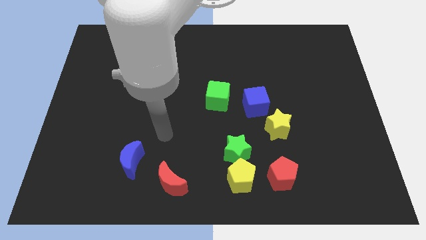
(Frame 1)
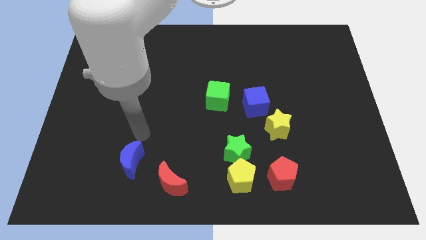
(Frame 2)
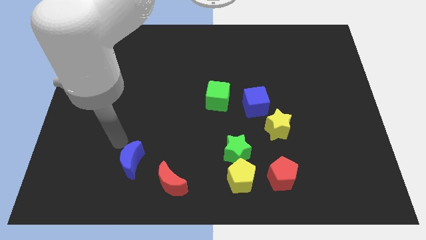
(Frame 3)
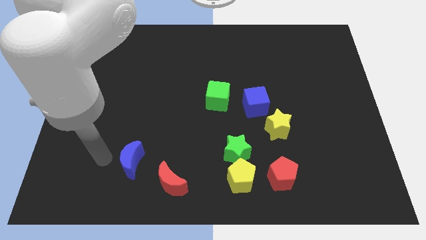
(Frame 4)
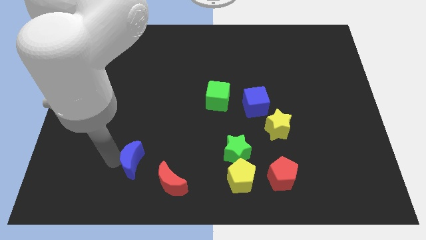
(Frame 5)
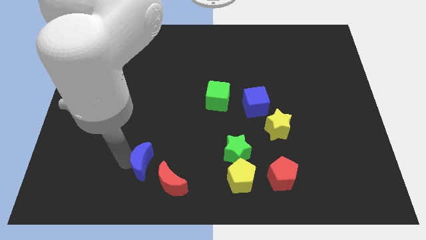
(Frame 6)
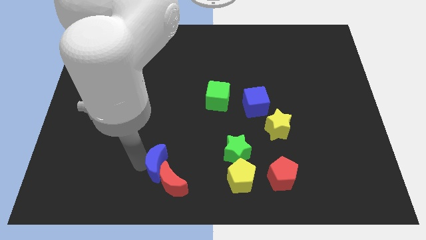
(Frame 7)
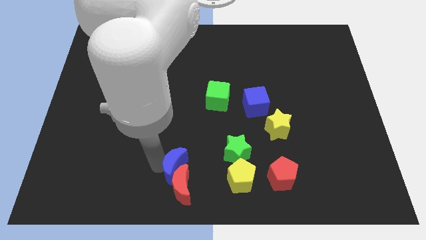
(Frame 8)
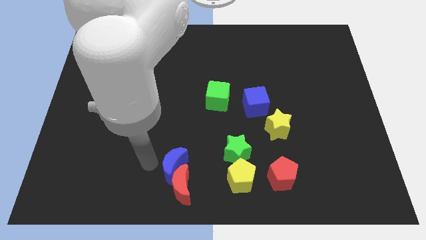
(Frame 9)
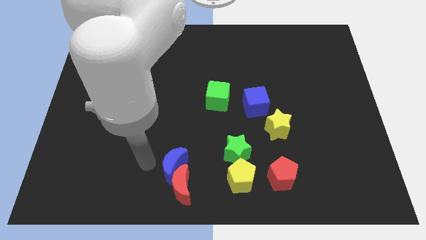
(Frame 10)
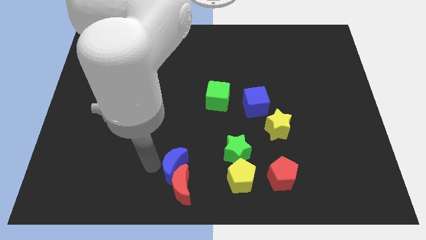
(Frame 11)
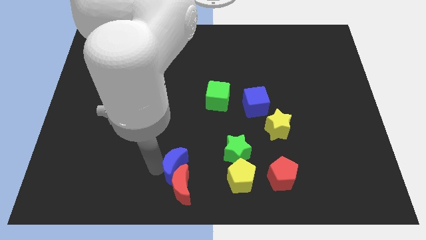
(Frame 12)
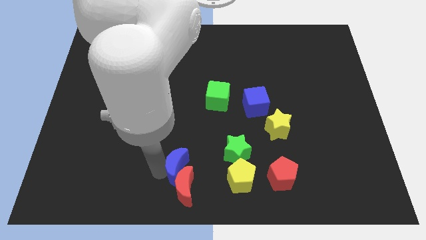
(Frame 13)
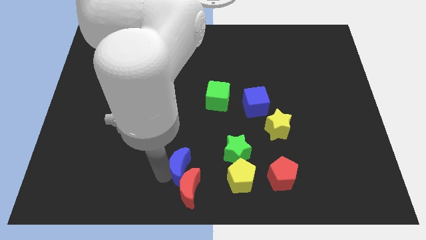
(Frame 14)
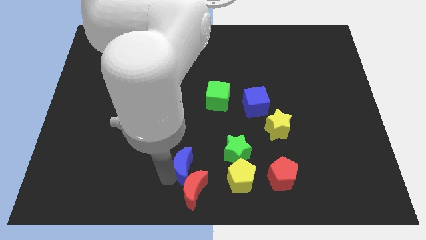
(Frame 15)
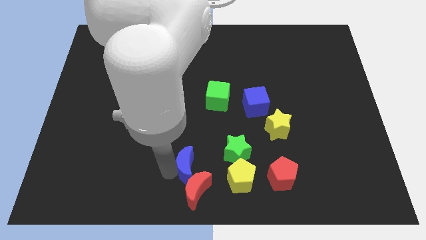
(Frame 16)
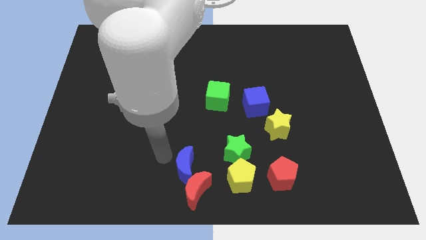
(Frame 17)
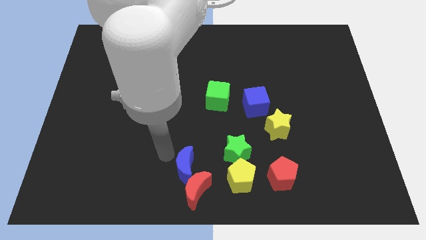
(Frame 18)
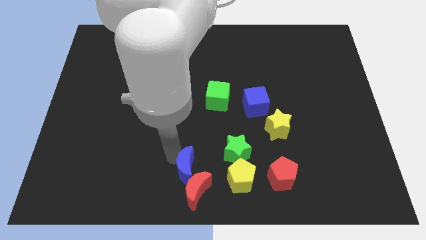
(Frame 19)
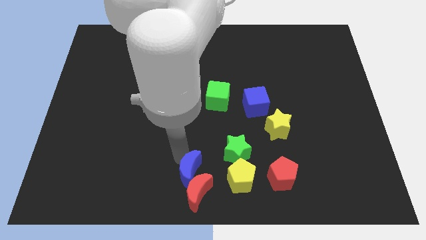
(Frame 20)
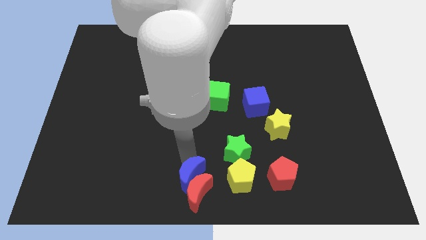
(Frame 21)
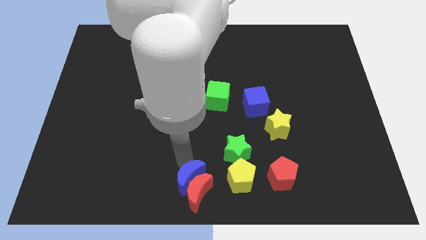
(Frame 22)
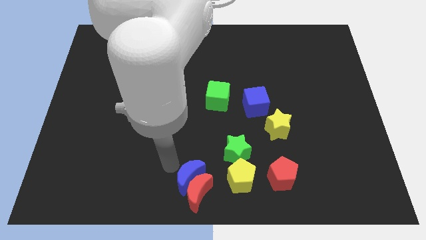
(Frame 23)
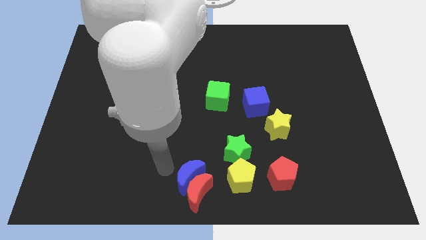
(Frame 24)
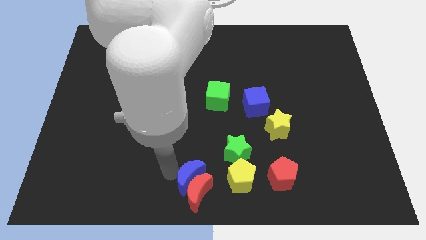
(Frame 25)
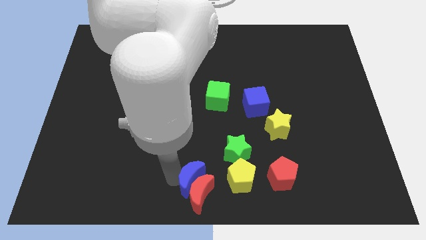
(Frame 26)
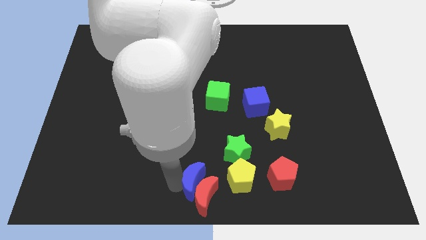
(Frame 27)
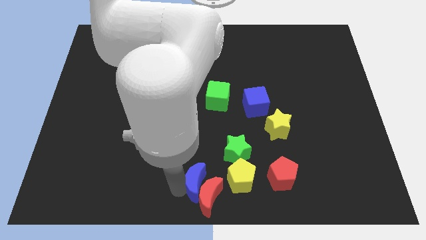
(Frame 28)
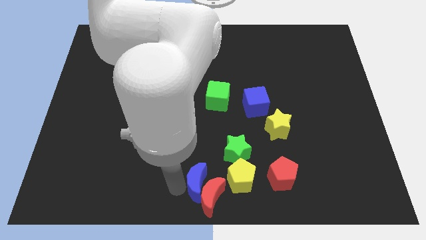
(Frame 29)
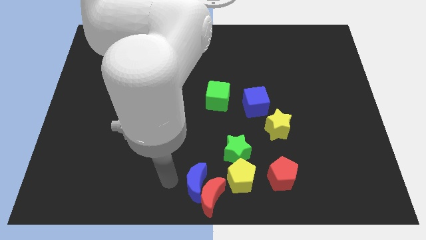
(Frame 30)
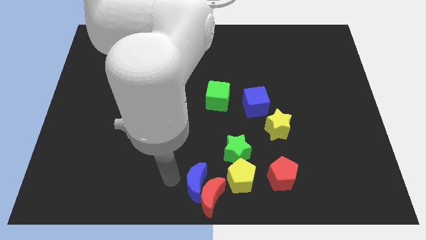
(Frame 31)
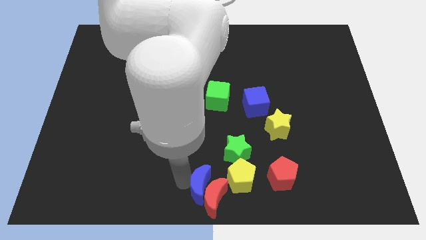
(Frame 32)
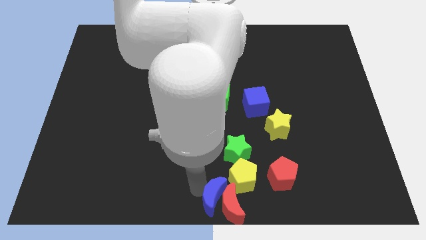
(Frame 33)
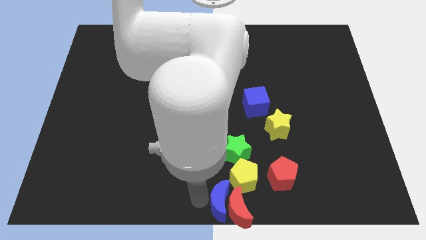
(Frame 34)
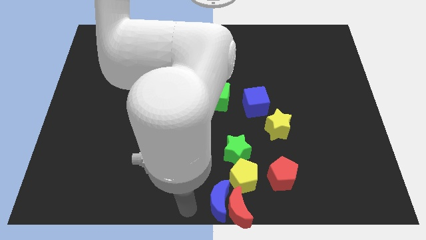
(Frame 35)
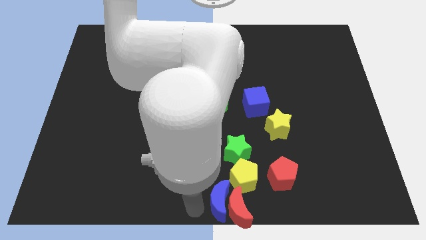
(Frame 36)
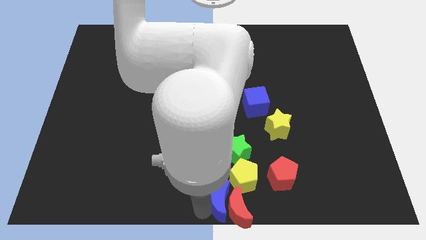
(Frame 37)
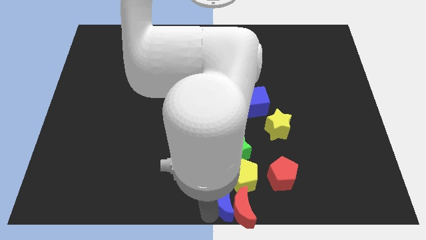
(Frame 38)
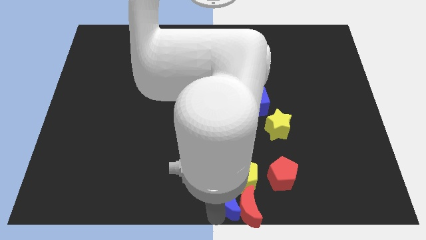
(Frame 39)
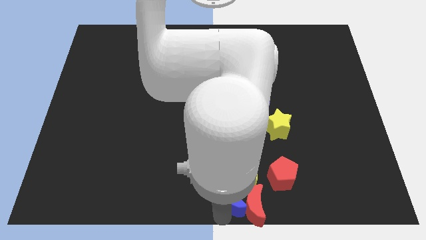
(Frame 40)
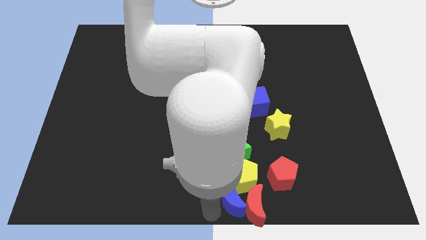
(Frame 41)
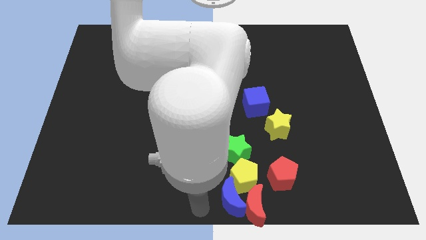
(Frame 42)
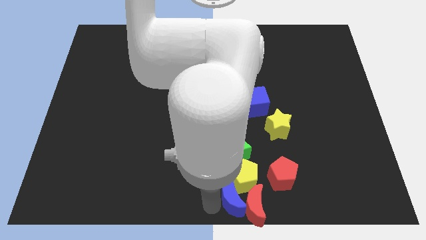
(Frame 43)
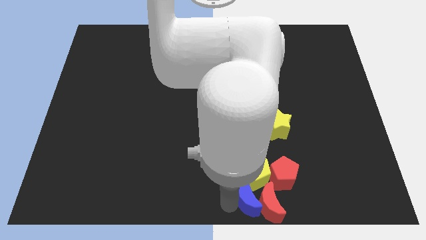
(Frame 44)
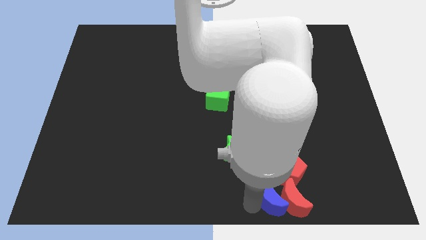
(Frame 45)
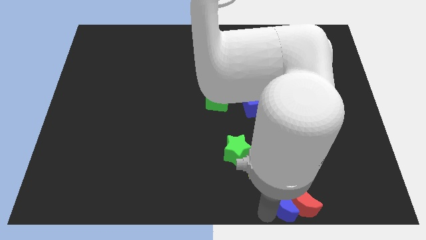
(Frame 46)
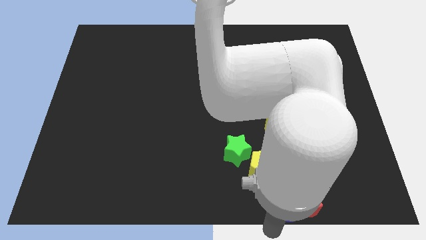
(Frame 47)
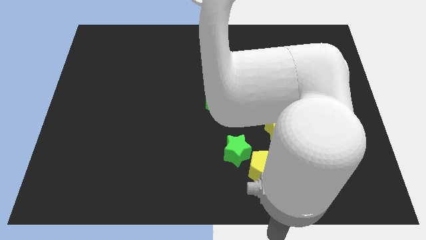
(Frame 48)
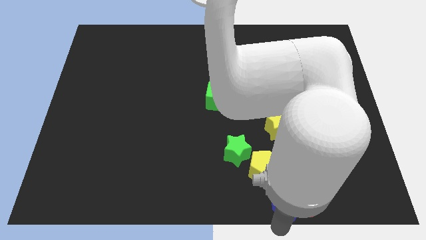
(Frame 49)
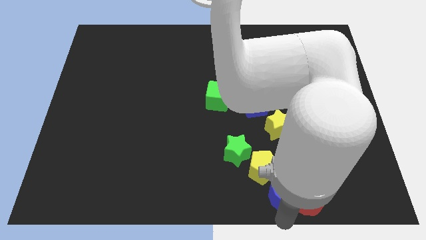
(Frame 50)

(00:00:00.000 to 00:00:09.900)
move the blue moon towards the red pentagon

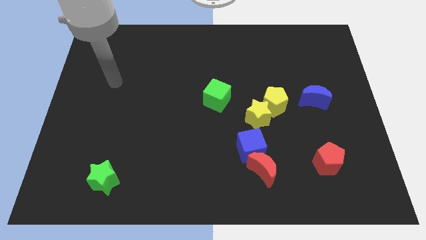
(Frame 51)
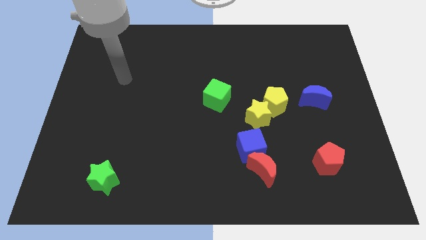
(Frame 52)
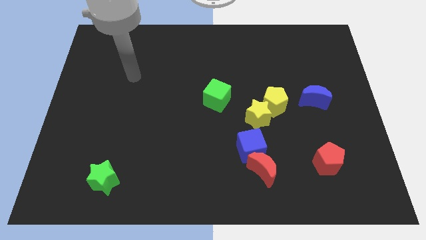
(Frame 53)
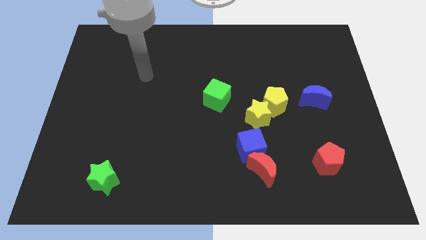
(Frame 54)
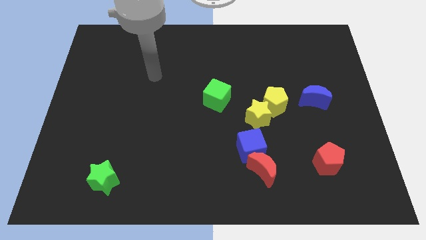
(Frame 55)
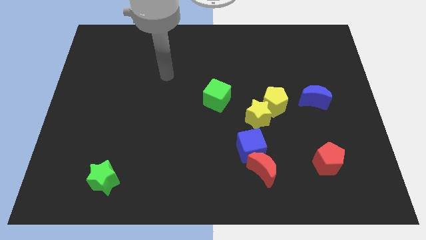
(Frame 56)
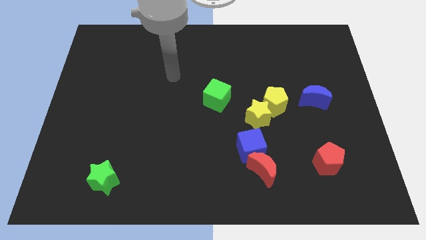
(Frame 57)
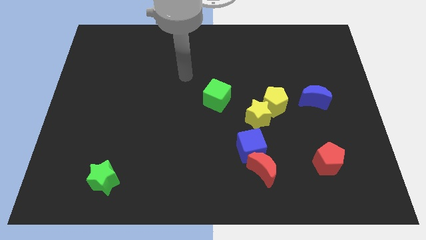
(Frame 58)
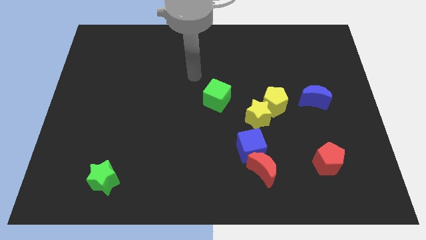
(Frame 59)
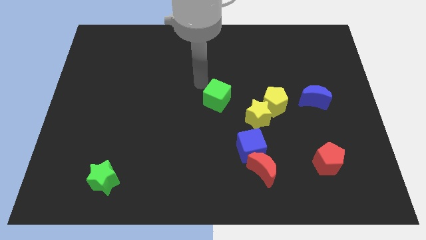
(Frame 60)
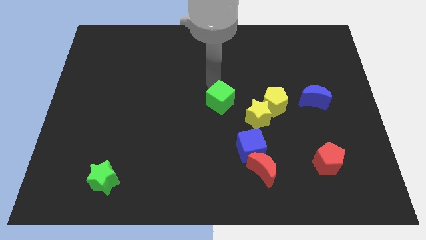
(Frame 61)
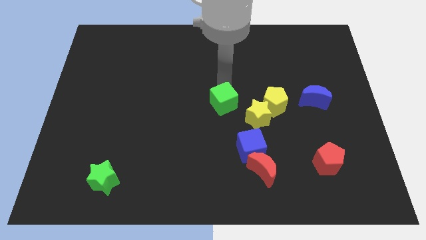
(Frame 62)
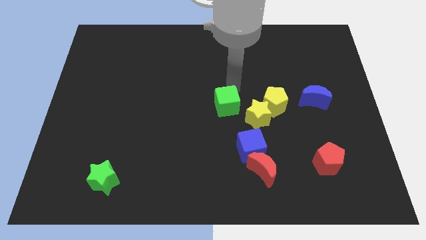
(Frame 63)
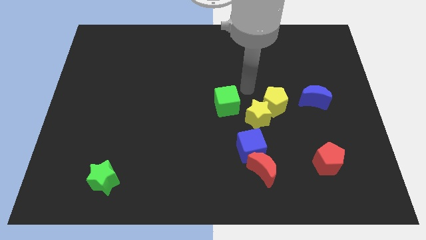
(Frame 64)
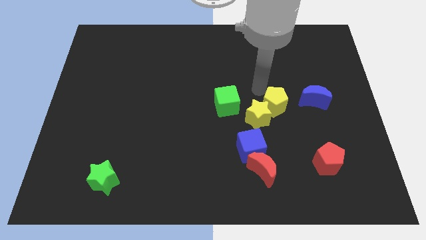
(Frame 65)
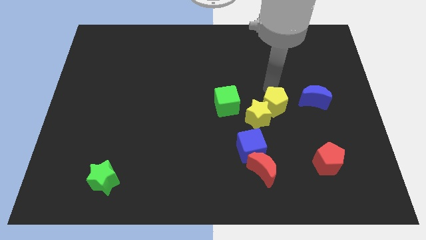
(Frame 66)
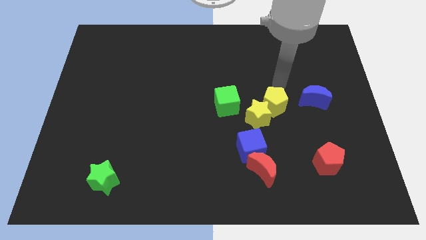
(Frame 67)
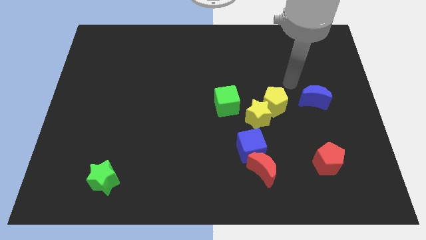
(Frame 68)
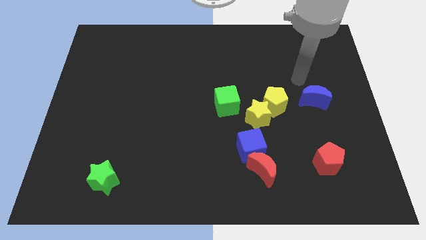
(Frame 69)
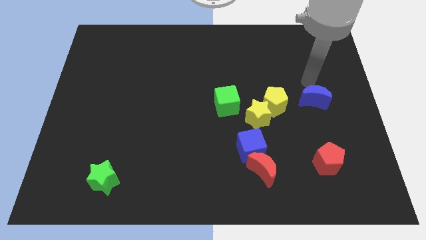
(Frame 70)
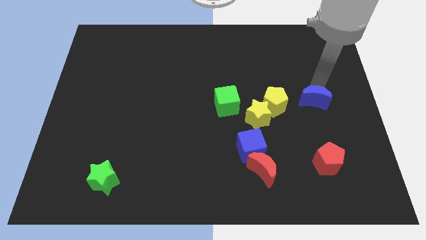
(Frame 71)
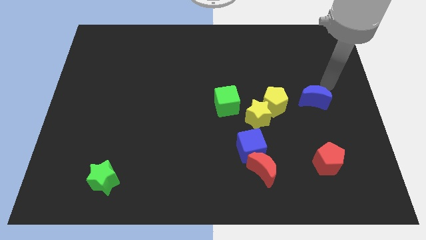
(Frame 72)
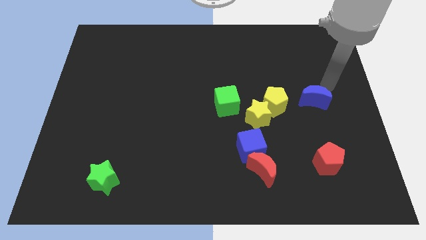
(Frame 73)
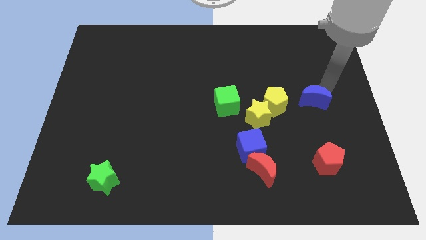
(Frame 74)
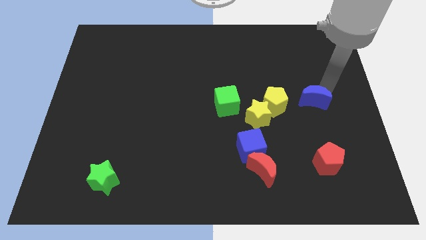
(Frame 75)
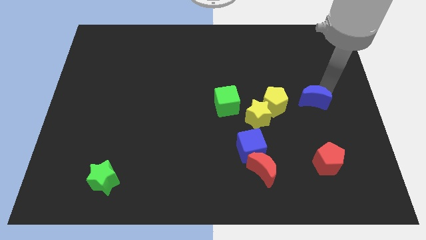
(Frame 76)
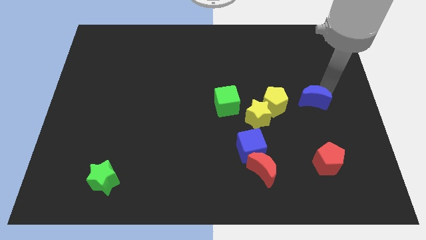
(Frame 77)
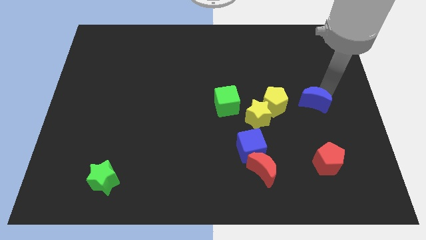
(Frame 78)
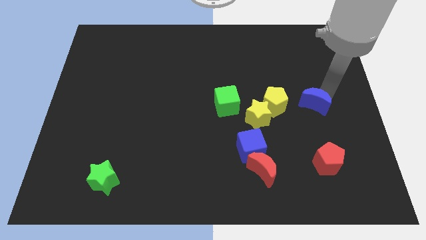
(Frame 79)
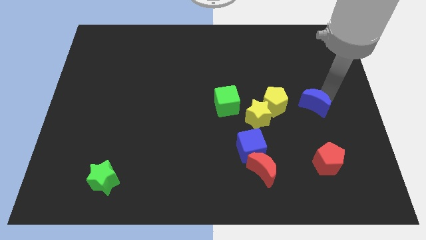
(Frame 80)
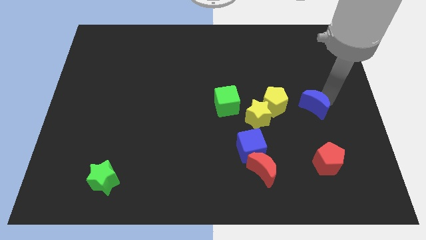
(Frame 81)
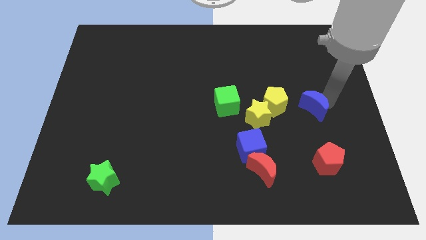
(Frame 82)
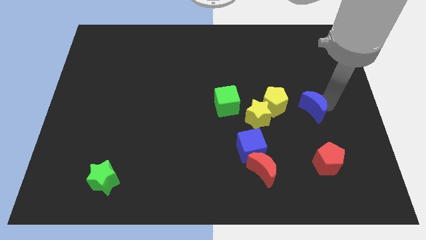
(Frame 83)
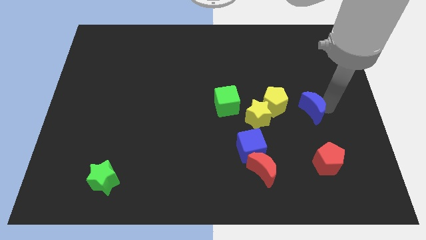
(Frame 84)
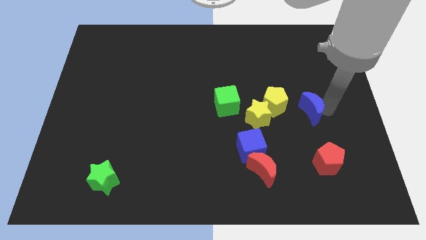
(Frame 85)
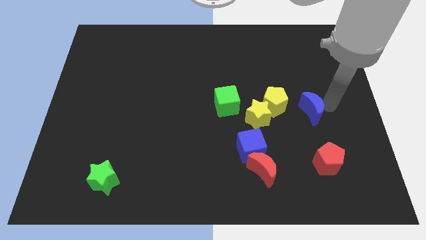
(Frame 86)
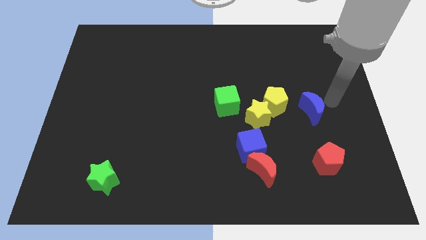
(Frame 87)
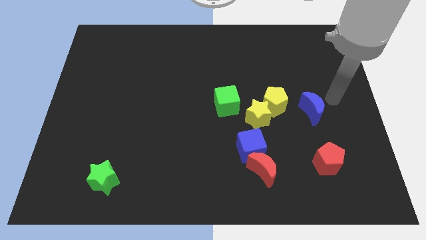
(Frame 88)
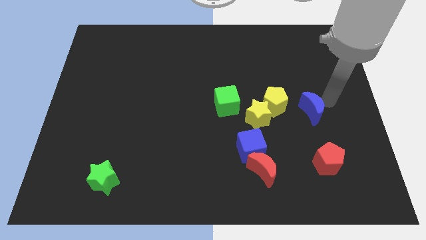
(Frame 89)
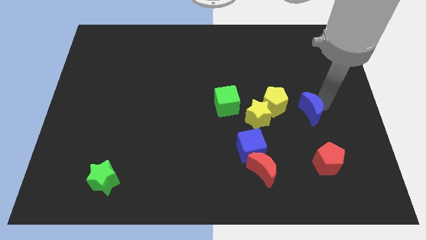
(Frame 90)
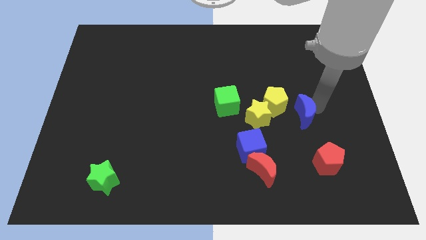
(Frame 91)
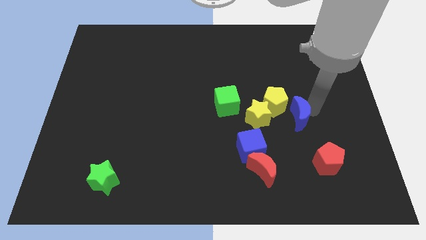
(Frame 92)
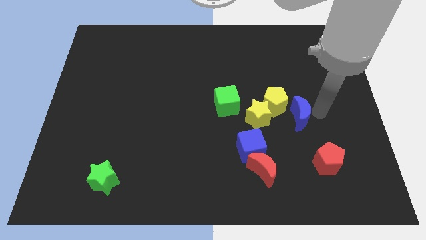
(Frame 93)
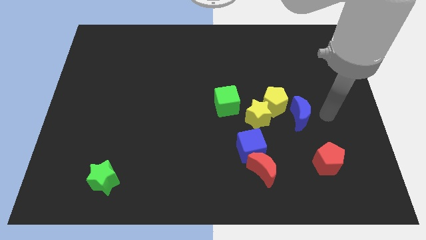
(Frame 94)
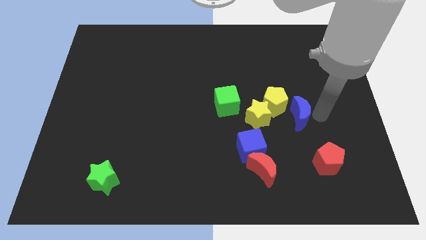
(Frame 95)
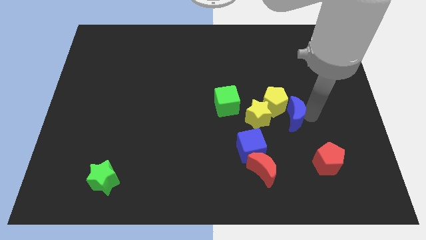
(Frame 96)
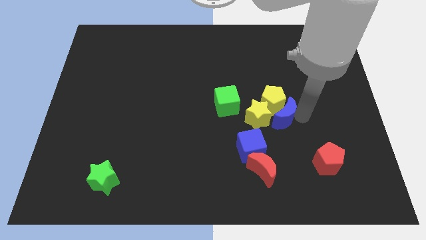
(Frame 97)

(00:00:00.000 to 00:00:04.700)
move the blue moon towards the yellow star
